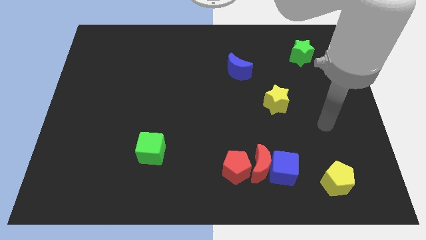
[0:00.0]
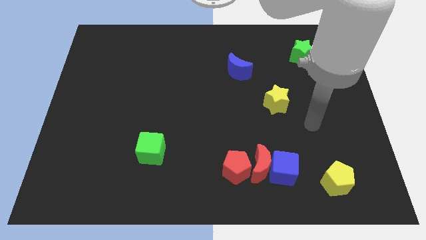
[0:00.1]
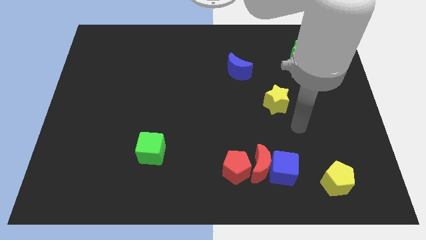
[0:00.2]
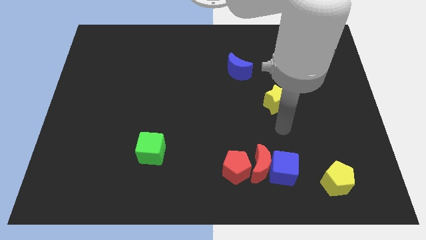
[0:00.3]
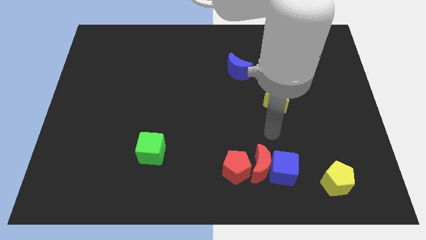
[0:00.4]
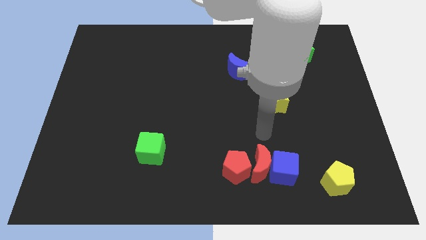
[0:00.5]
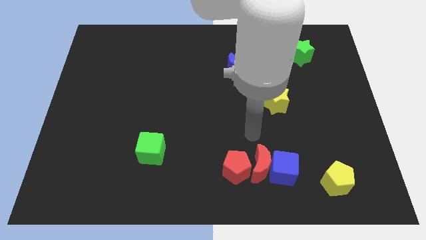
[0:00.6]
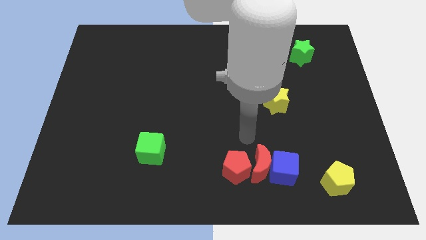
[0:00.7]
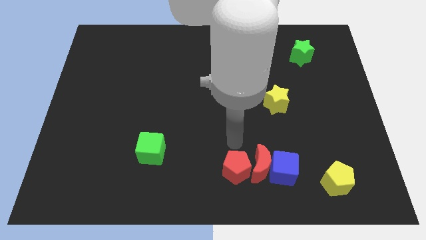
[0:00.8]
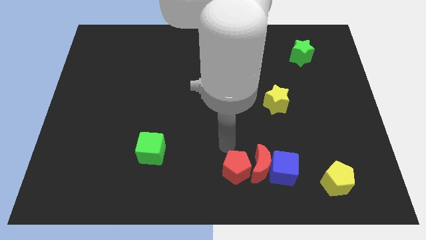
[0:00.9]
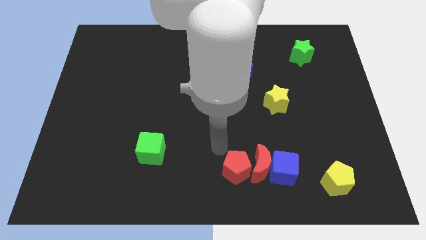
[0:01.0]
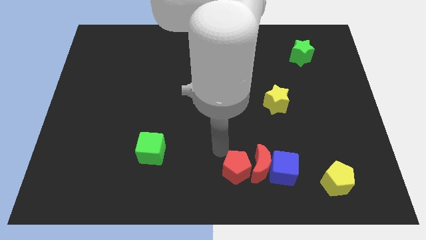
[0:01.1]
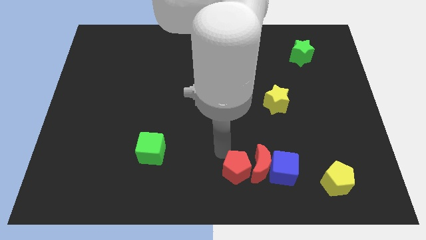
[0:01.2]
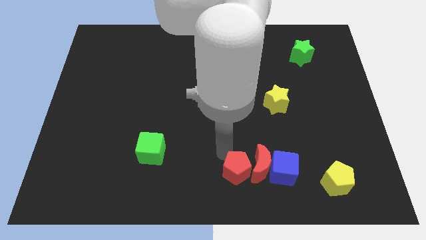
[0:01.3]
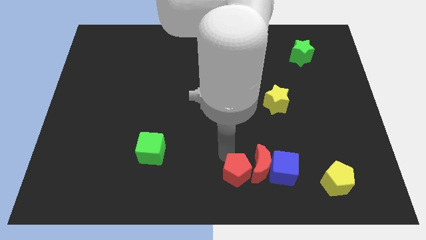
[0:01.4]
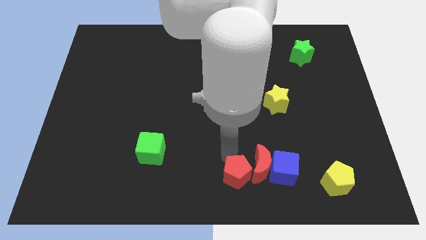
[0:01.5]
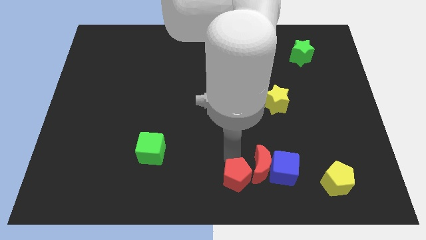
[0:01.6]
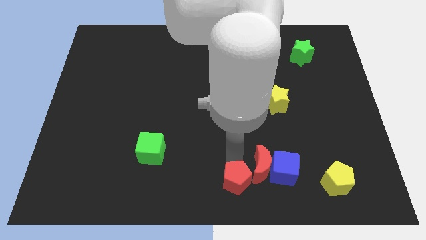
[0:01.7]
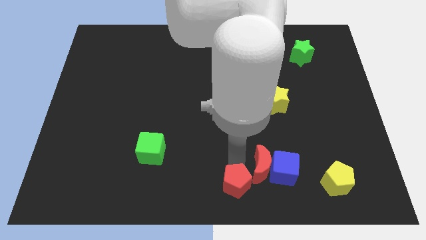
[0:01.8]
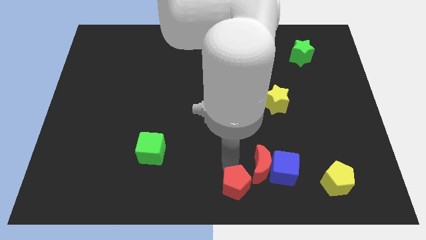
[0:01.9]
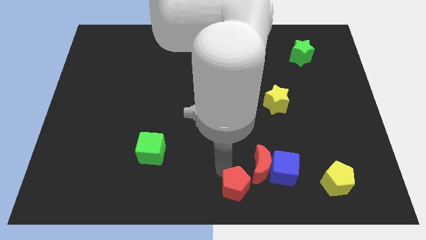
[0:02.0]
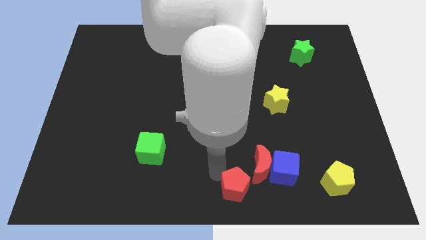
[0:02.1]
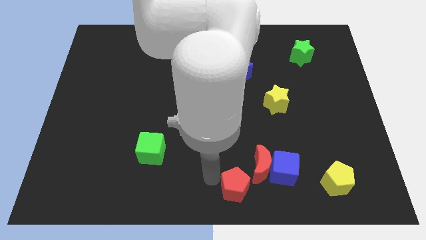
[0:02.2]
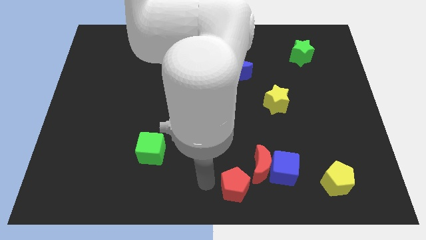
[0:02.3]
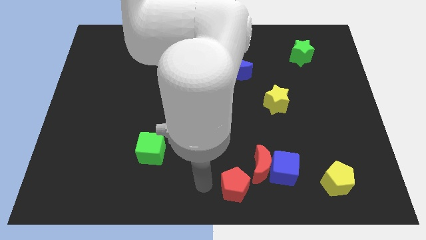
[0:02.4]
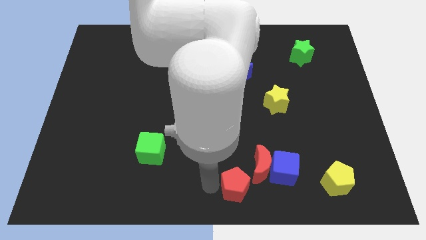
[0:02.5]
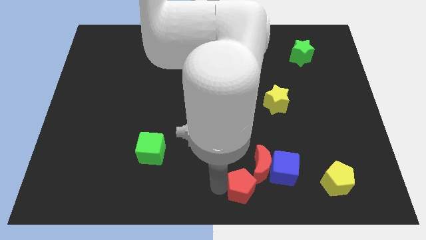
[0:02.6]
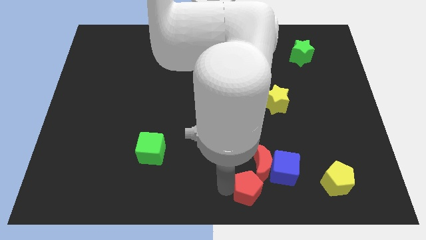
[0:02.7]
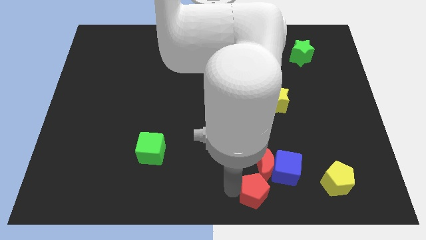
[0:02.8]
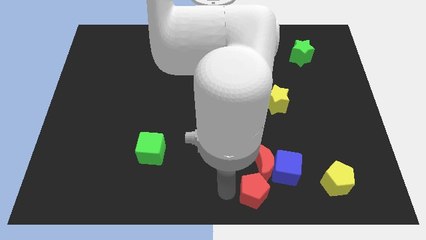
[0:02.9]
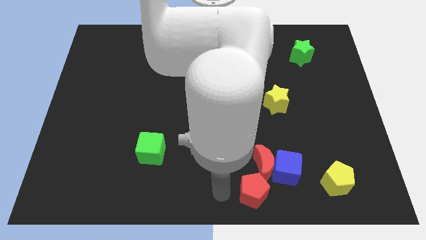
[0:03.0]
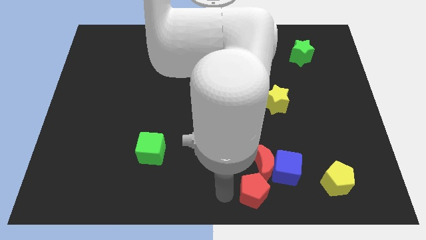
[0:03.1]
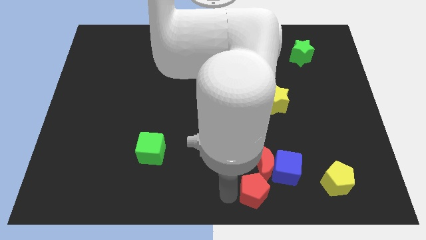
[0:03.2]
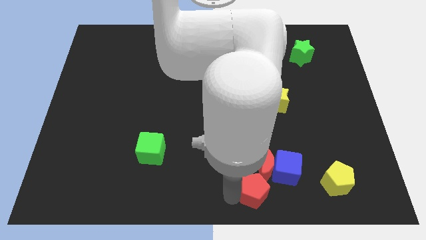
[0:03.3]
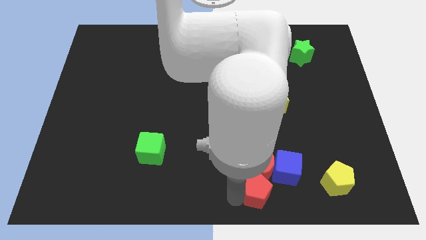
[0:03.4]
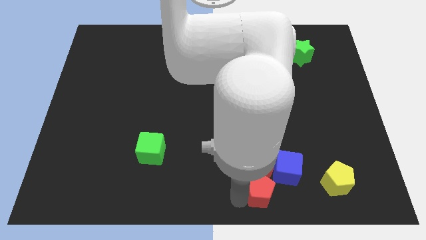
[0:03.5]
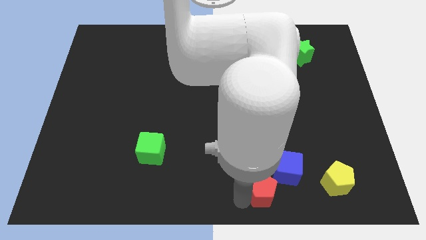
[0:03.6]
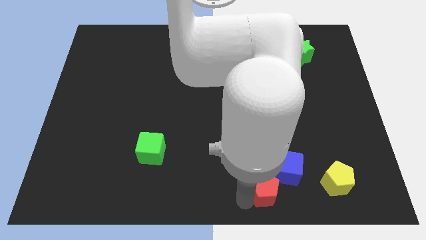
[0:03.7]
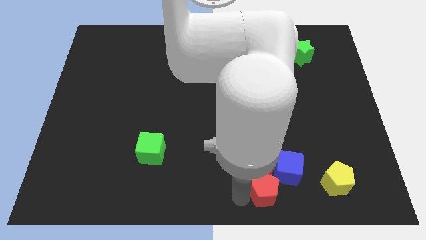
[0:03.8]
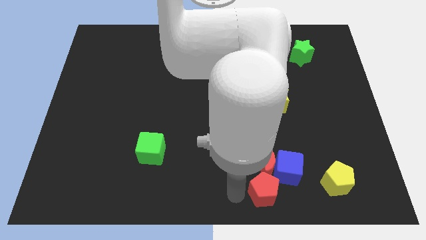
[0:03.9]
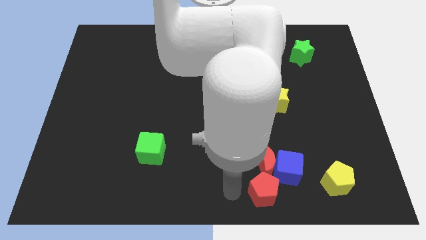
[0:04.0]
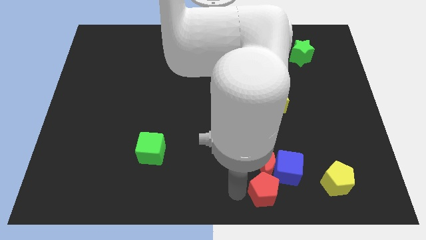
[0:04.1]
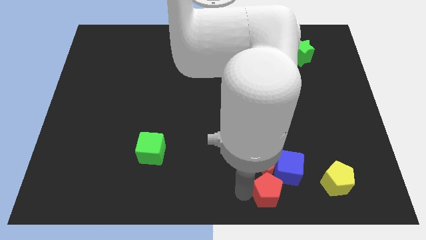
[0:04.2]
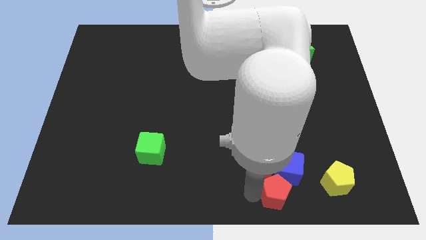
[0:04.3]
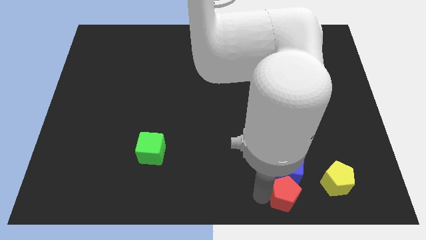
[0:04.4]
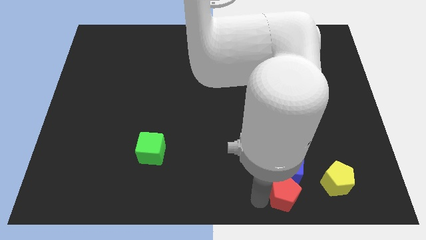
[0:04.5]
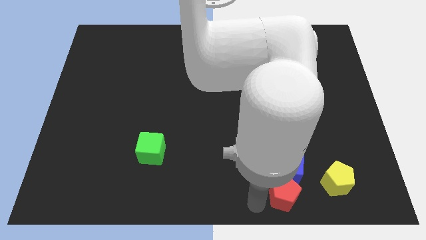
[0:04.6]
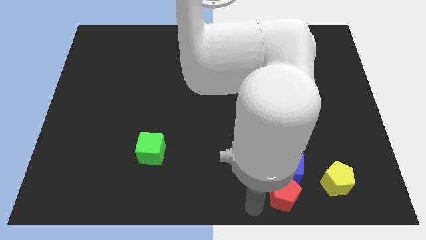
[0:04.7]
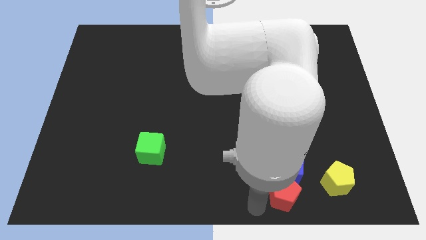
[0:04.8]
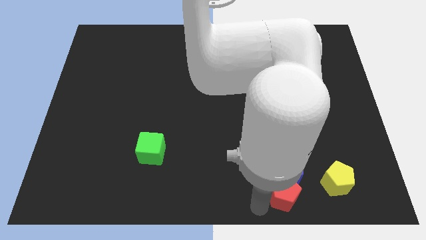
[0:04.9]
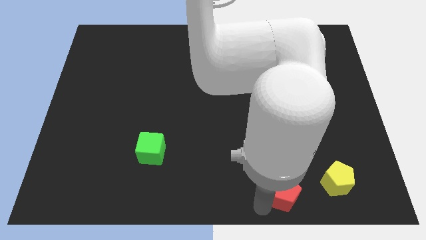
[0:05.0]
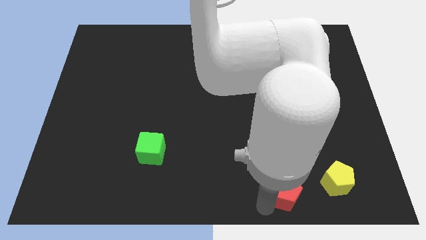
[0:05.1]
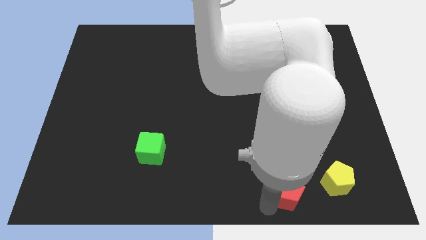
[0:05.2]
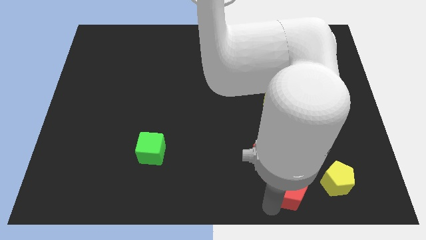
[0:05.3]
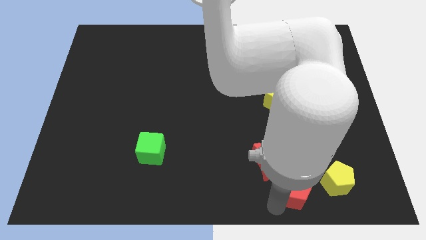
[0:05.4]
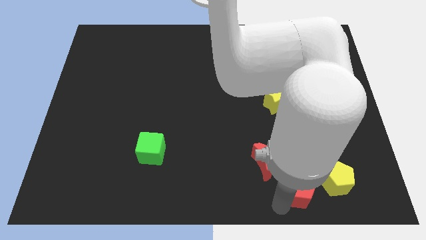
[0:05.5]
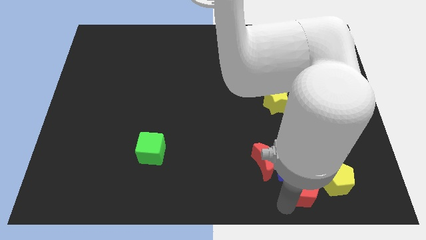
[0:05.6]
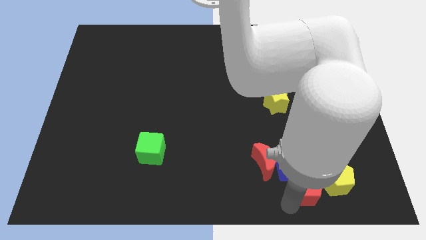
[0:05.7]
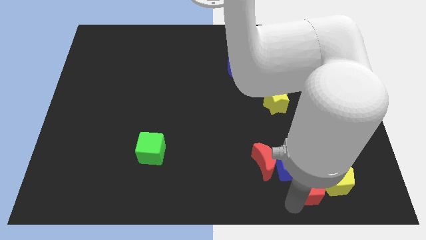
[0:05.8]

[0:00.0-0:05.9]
slide the red pentagon close to the yellow pentagon

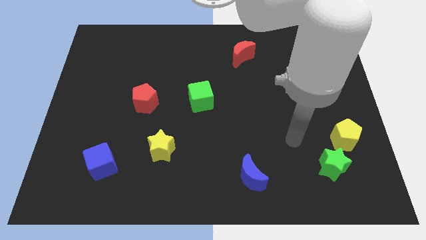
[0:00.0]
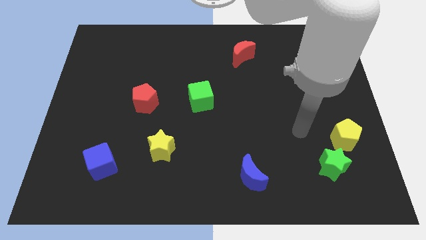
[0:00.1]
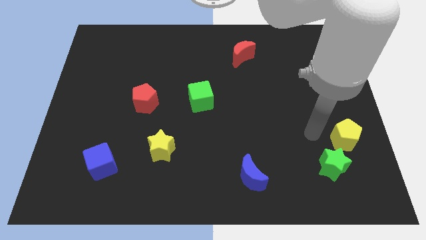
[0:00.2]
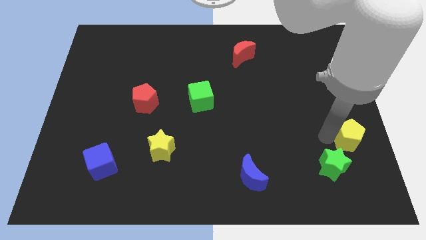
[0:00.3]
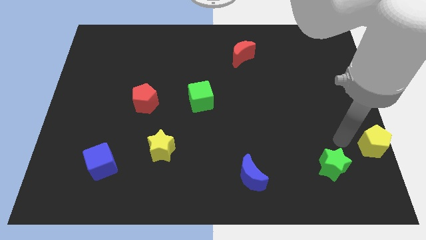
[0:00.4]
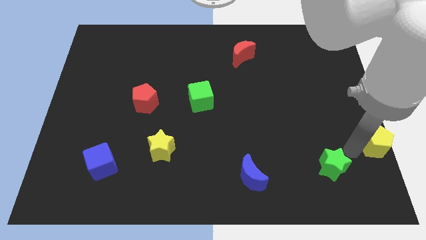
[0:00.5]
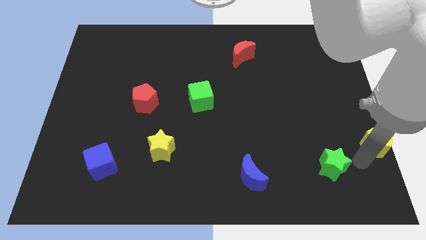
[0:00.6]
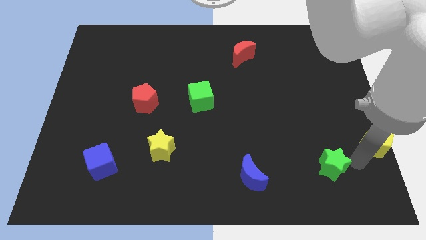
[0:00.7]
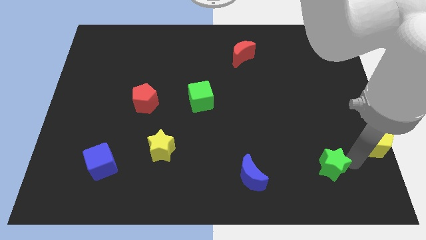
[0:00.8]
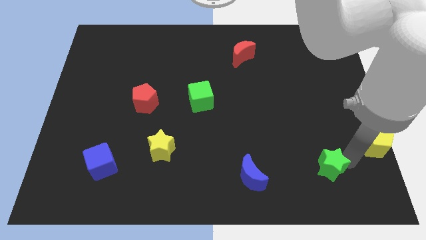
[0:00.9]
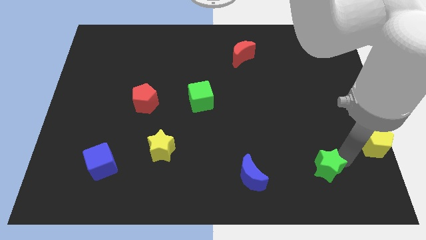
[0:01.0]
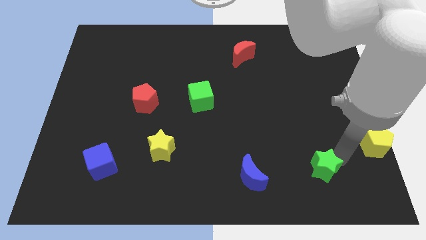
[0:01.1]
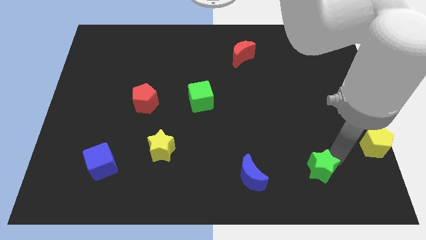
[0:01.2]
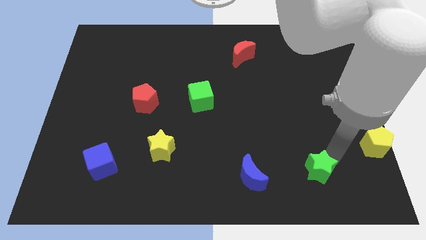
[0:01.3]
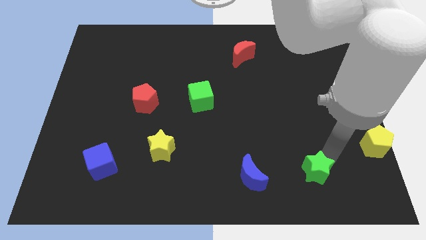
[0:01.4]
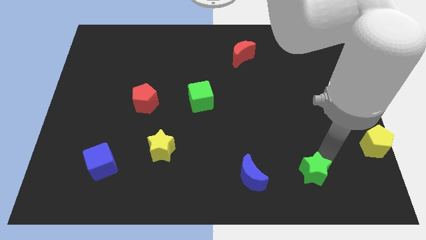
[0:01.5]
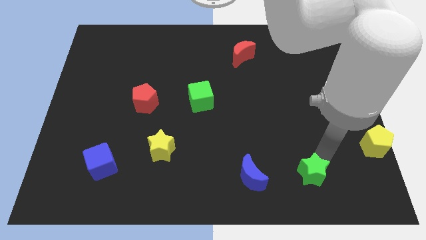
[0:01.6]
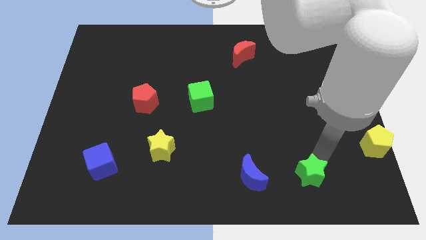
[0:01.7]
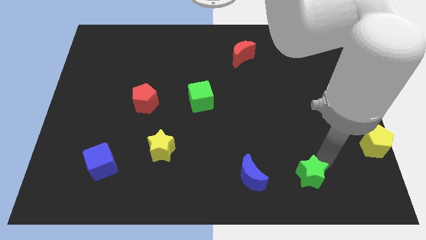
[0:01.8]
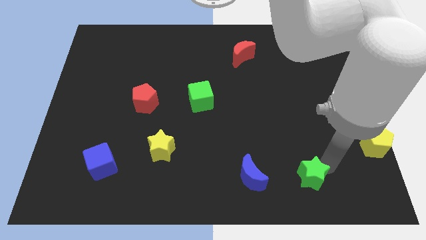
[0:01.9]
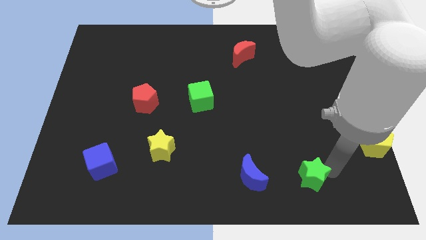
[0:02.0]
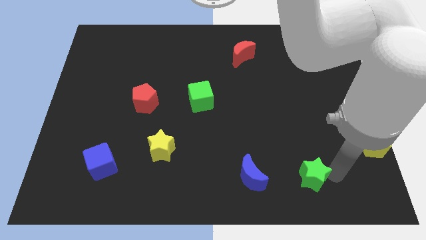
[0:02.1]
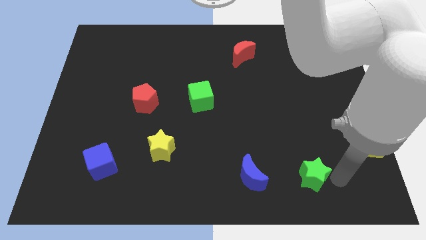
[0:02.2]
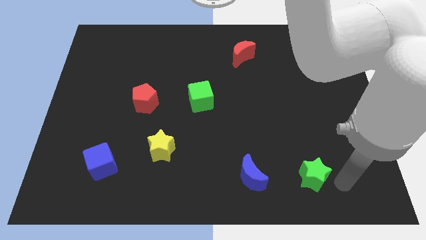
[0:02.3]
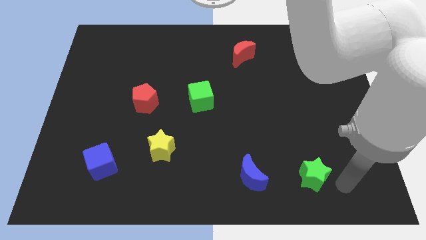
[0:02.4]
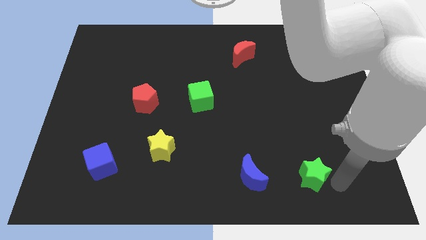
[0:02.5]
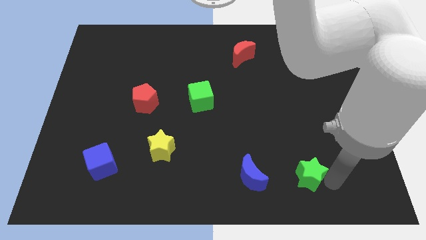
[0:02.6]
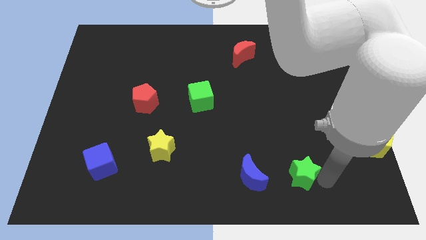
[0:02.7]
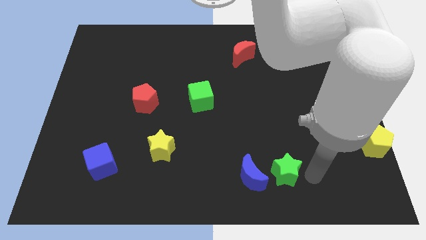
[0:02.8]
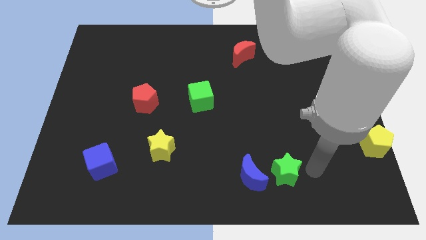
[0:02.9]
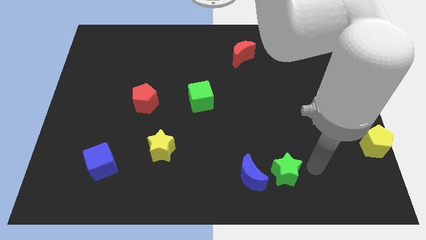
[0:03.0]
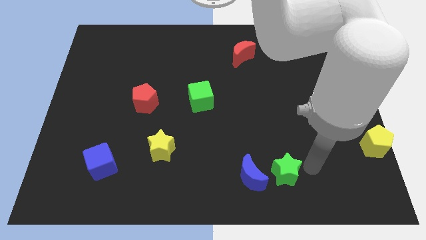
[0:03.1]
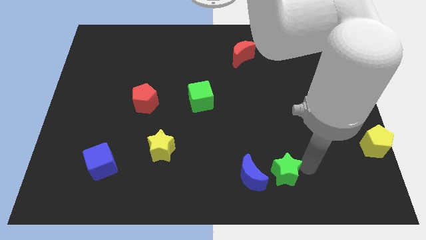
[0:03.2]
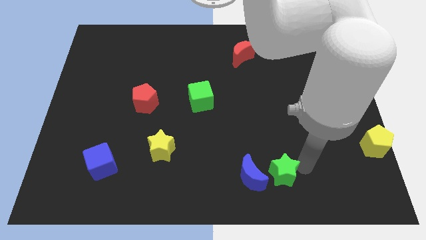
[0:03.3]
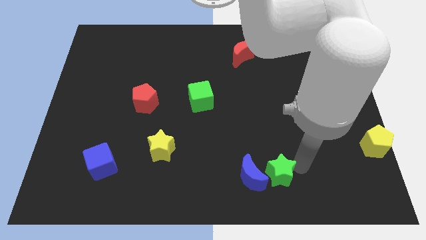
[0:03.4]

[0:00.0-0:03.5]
push the green star towards the blue moon
